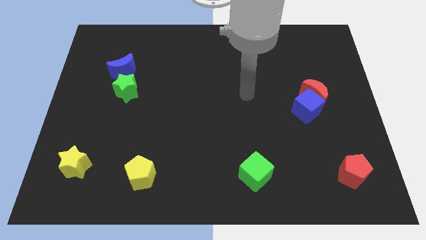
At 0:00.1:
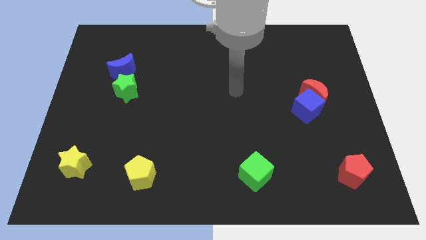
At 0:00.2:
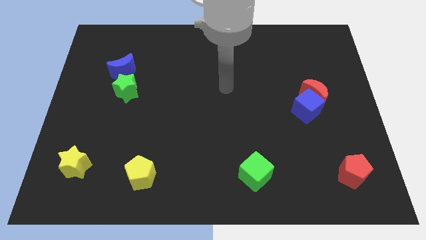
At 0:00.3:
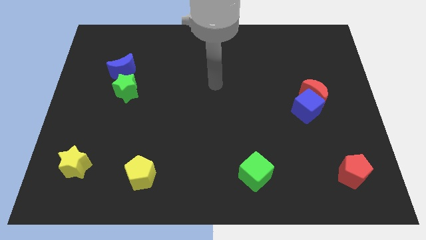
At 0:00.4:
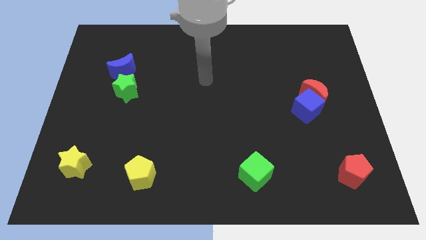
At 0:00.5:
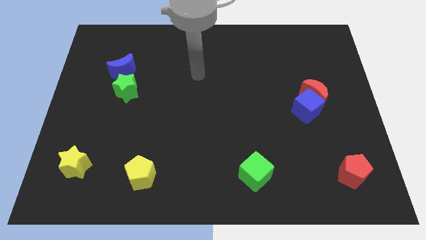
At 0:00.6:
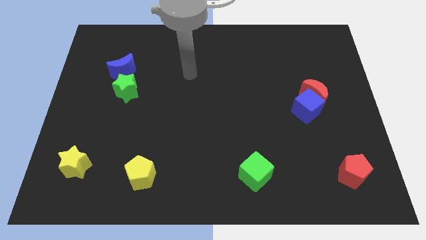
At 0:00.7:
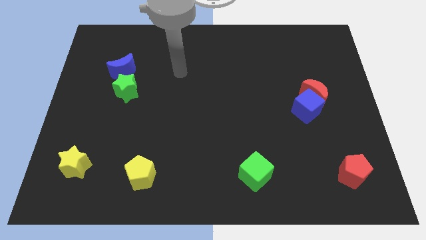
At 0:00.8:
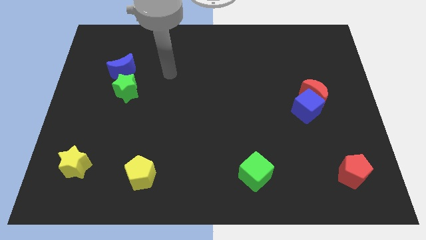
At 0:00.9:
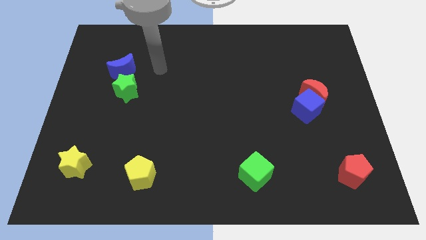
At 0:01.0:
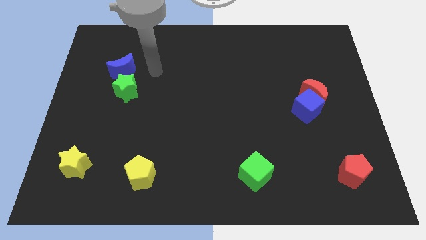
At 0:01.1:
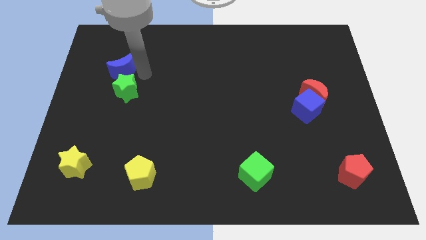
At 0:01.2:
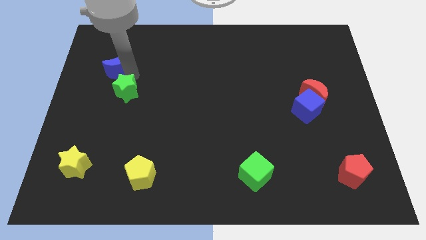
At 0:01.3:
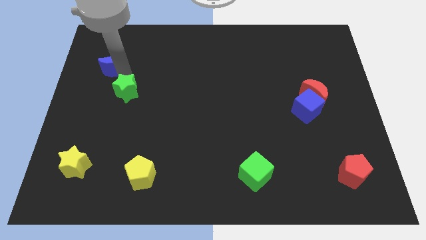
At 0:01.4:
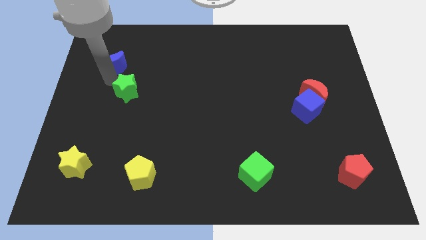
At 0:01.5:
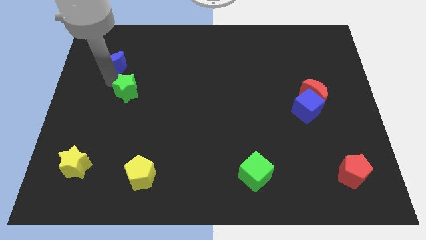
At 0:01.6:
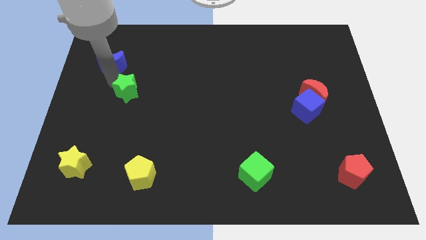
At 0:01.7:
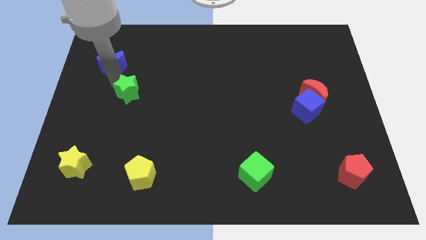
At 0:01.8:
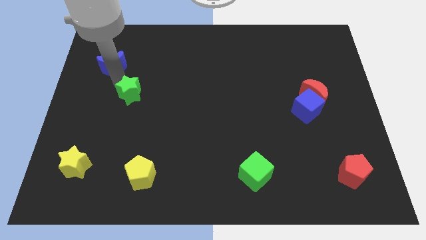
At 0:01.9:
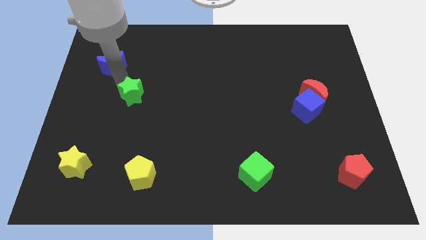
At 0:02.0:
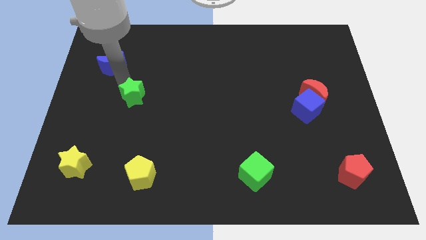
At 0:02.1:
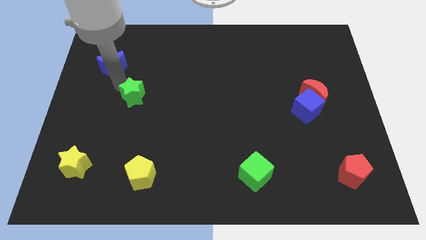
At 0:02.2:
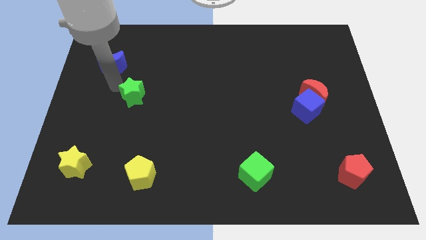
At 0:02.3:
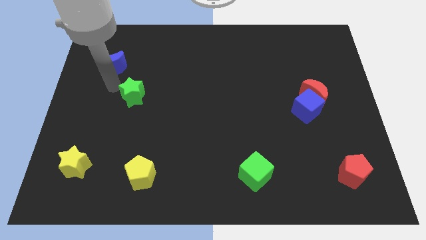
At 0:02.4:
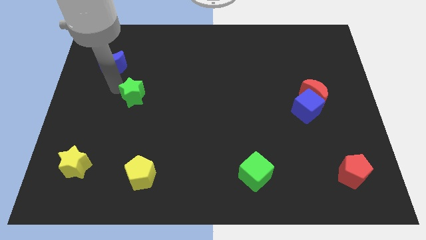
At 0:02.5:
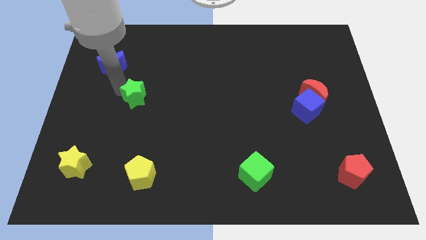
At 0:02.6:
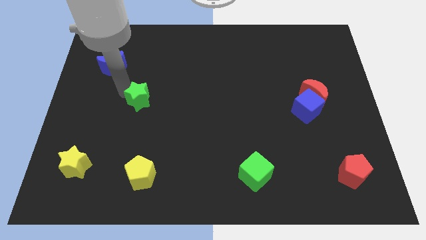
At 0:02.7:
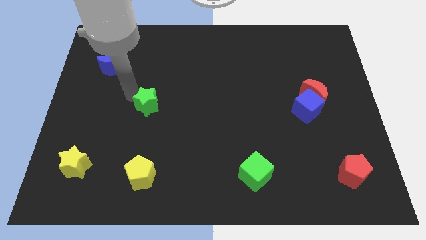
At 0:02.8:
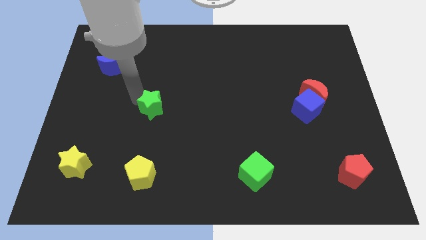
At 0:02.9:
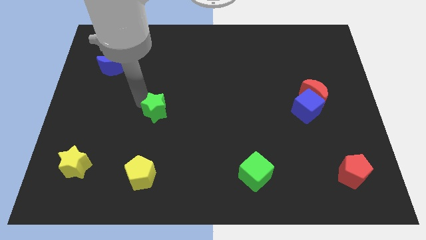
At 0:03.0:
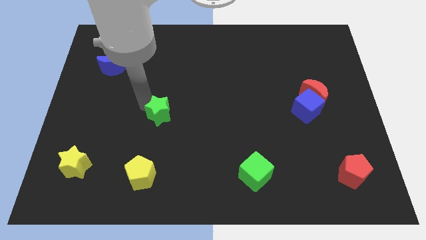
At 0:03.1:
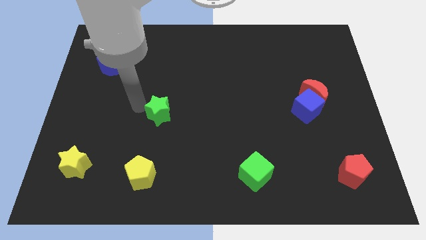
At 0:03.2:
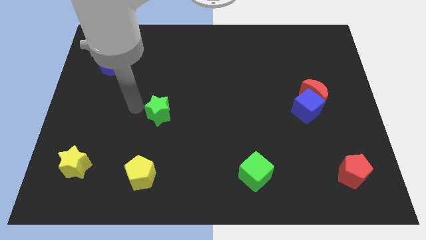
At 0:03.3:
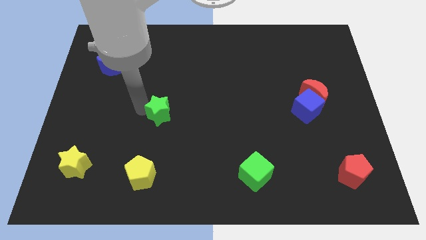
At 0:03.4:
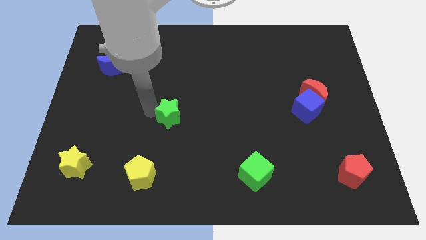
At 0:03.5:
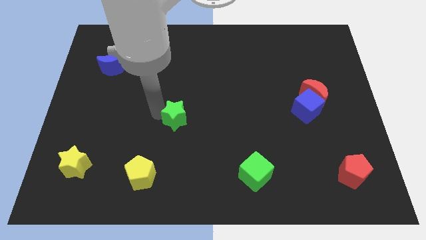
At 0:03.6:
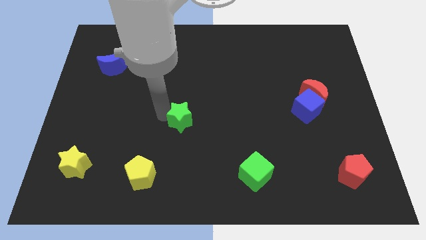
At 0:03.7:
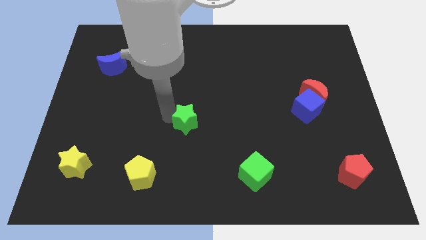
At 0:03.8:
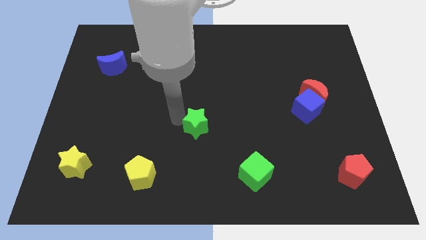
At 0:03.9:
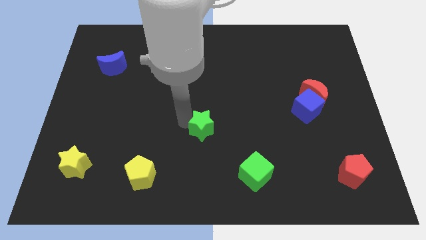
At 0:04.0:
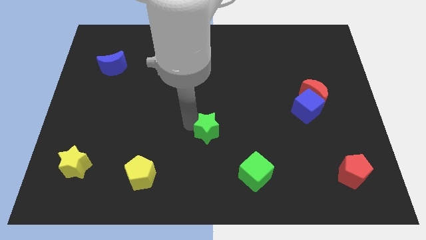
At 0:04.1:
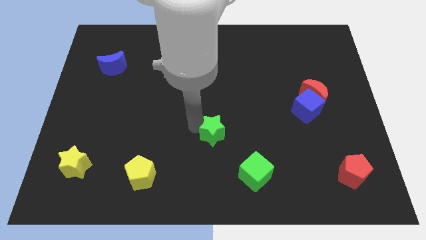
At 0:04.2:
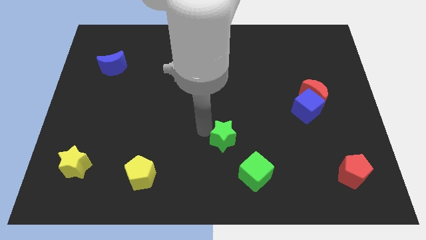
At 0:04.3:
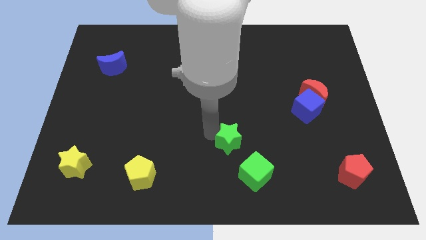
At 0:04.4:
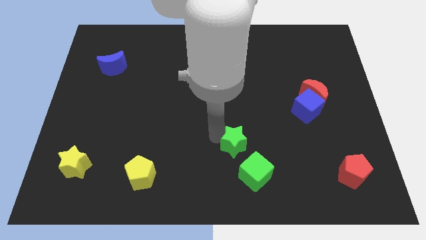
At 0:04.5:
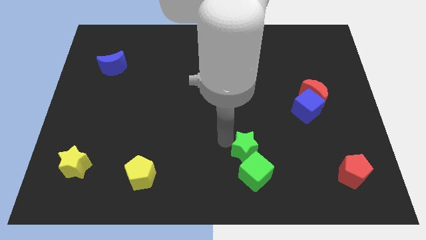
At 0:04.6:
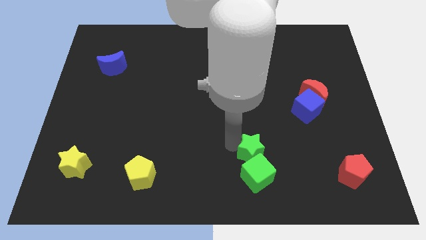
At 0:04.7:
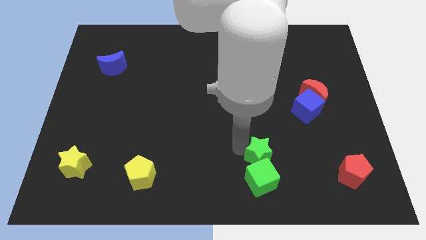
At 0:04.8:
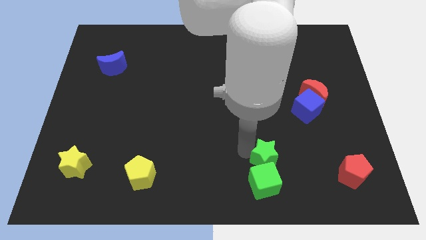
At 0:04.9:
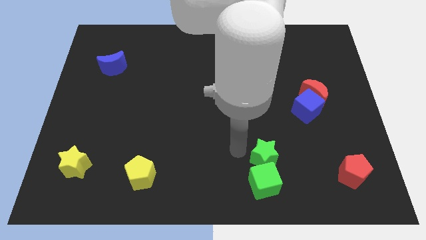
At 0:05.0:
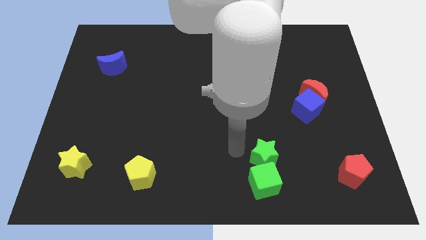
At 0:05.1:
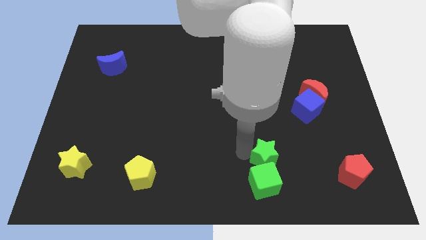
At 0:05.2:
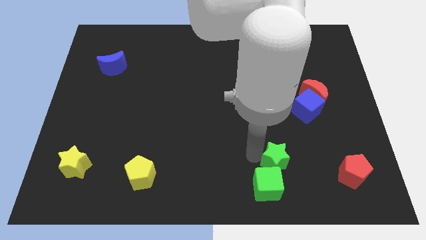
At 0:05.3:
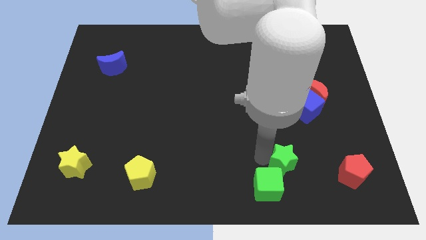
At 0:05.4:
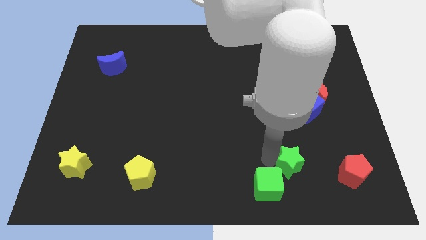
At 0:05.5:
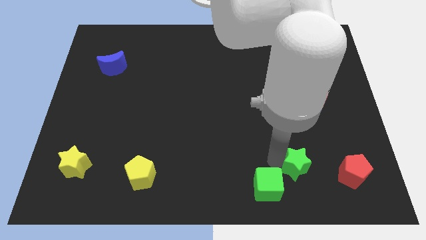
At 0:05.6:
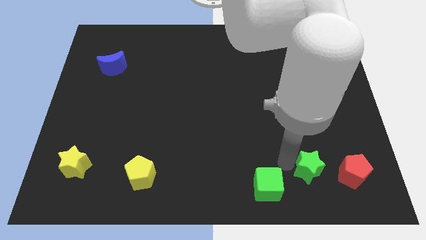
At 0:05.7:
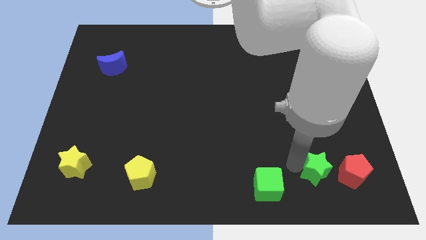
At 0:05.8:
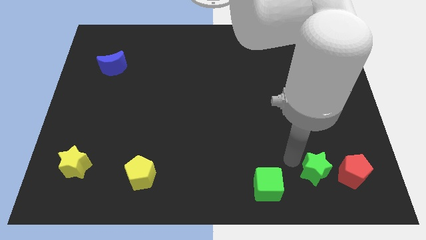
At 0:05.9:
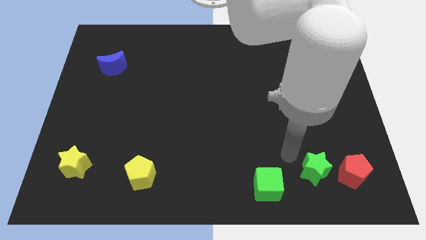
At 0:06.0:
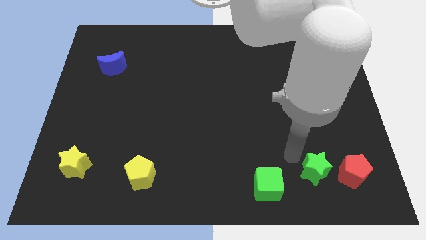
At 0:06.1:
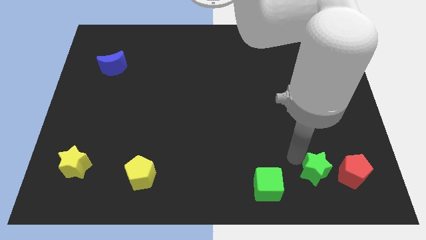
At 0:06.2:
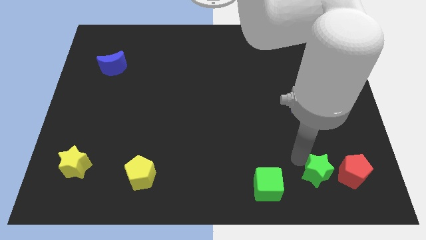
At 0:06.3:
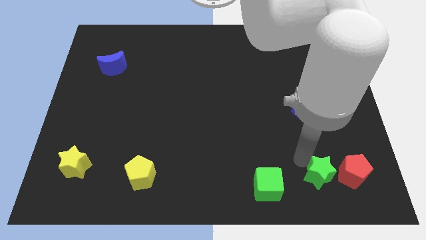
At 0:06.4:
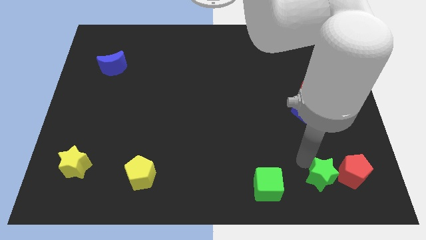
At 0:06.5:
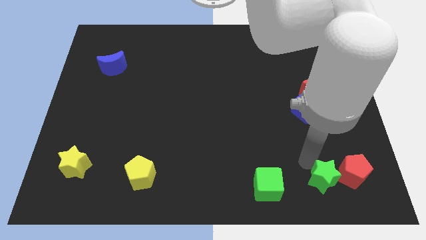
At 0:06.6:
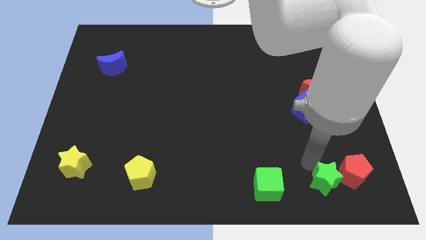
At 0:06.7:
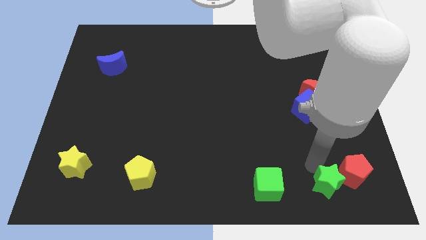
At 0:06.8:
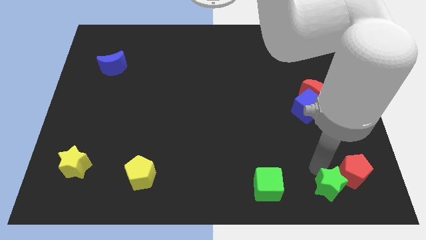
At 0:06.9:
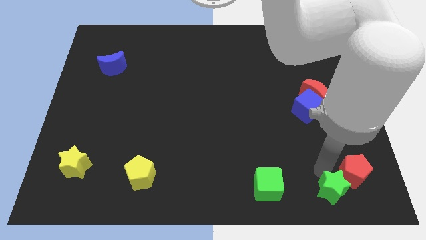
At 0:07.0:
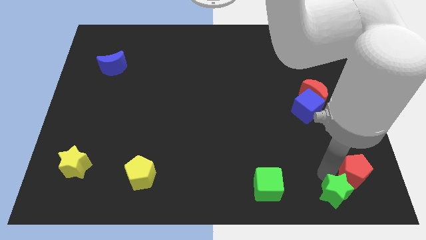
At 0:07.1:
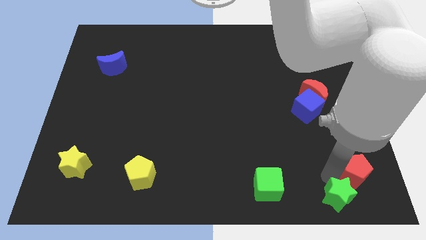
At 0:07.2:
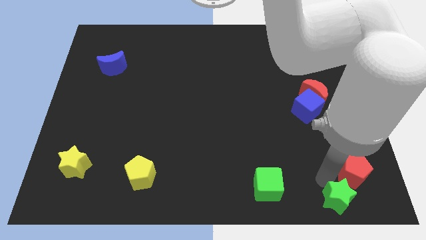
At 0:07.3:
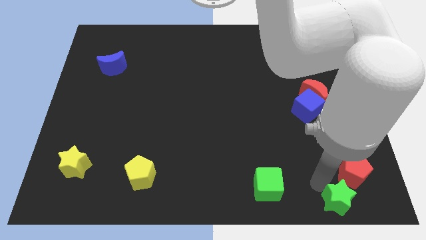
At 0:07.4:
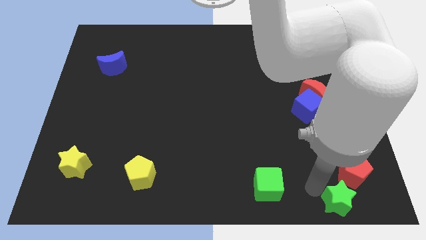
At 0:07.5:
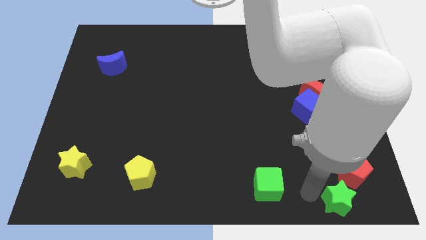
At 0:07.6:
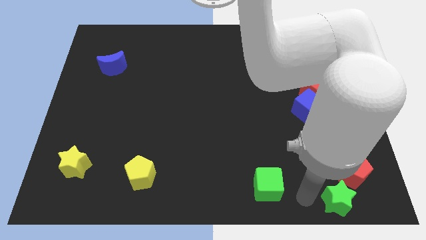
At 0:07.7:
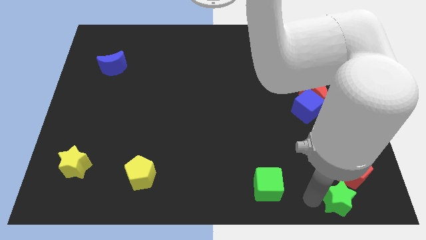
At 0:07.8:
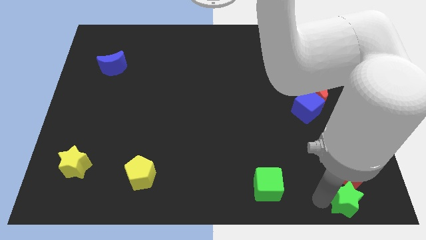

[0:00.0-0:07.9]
move the green star to the bottom right of the board
